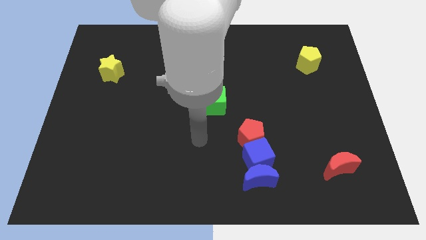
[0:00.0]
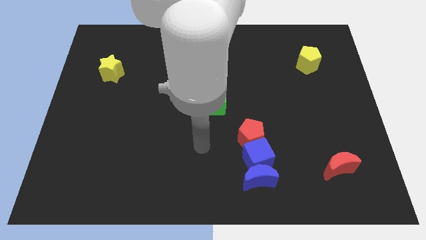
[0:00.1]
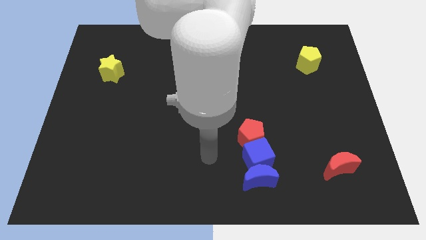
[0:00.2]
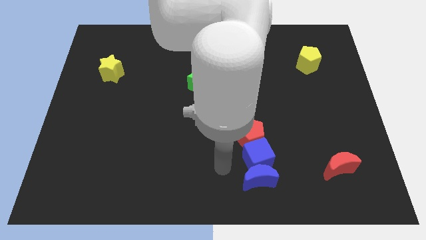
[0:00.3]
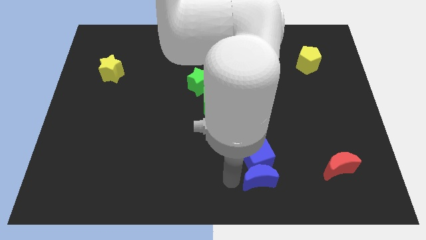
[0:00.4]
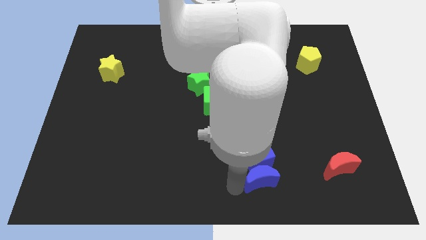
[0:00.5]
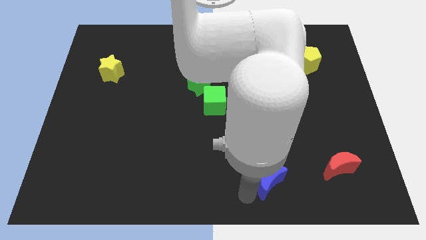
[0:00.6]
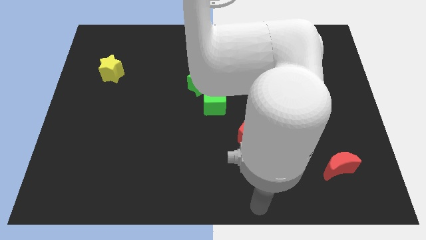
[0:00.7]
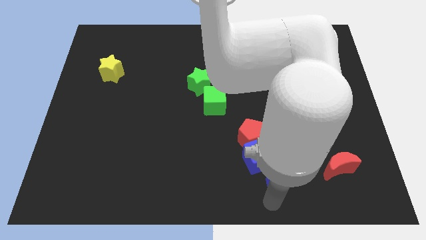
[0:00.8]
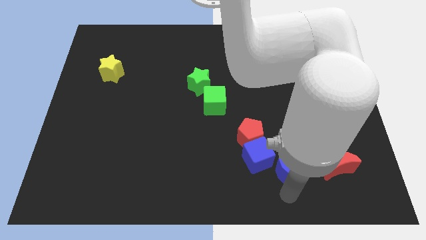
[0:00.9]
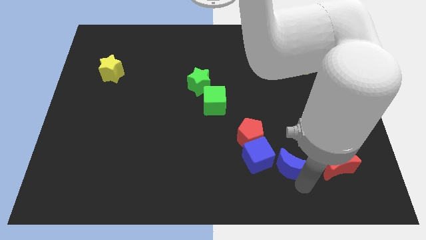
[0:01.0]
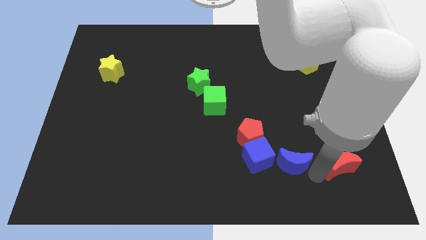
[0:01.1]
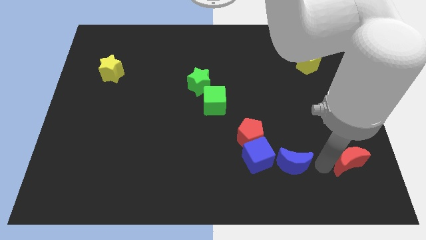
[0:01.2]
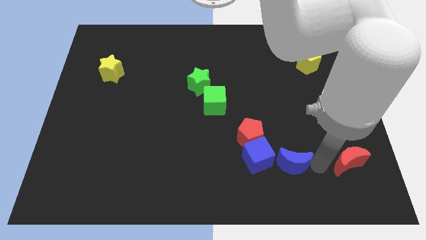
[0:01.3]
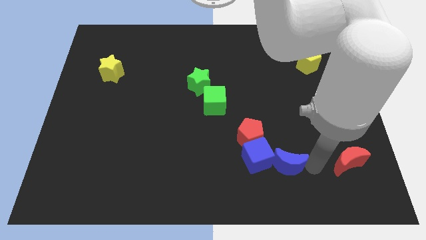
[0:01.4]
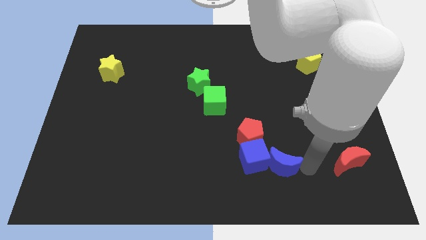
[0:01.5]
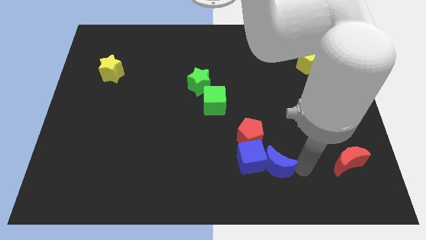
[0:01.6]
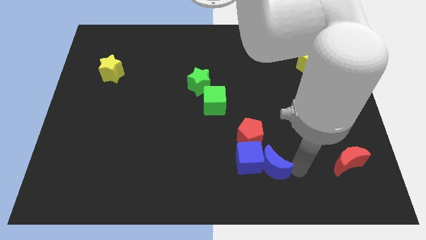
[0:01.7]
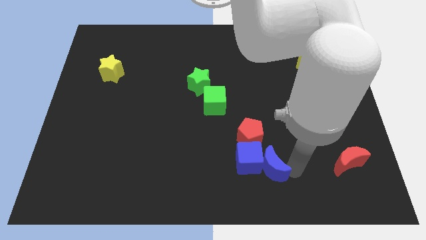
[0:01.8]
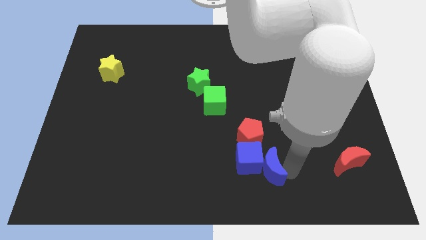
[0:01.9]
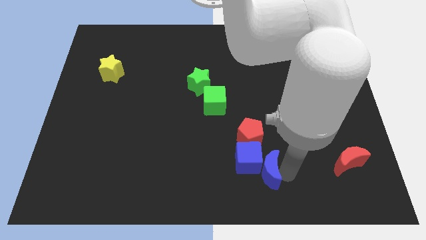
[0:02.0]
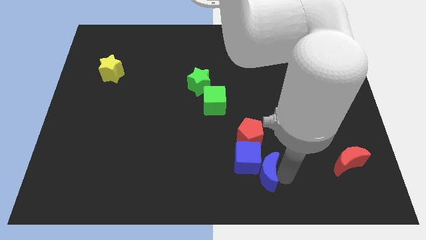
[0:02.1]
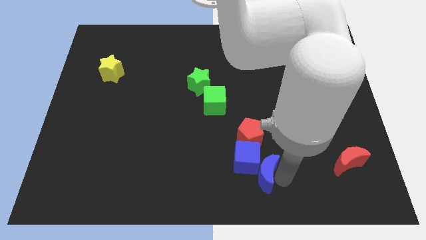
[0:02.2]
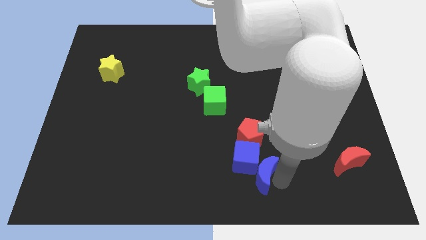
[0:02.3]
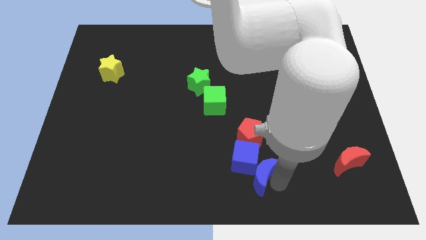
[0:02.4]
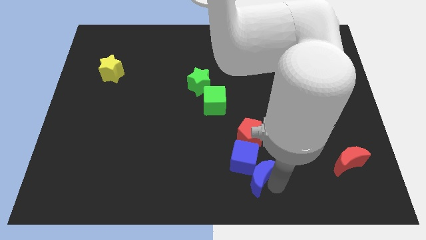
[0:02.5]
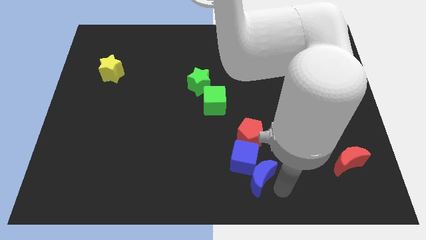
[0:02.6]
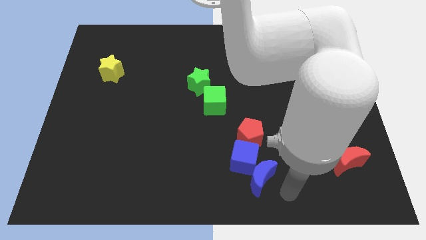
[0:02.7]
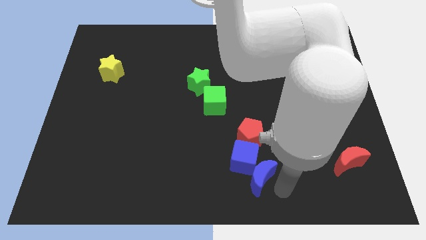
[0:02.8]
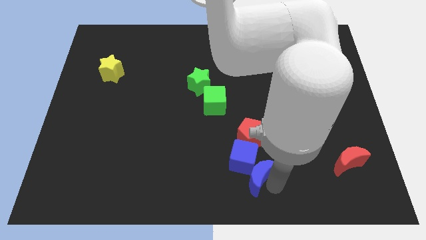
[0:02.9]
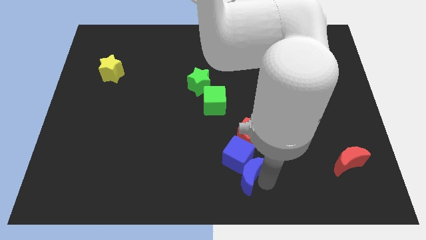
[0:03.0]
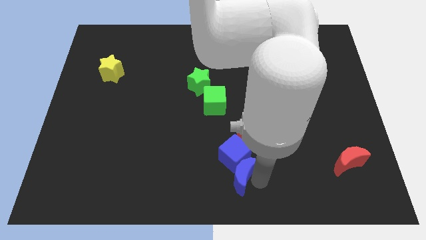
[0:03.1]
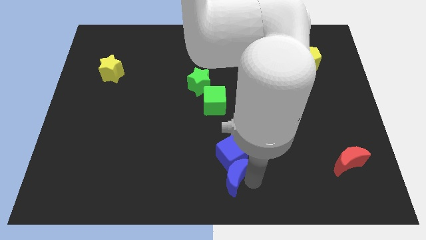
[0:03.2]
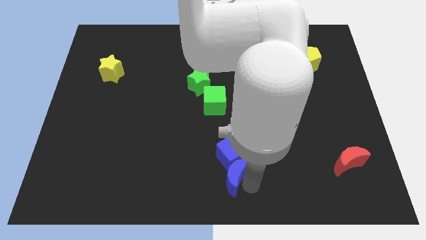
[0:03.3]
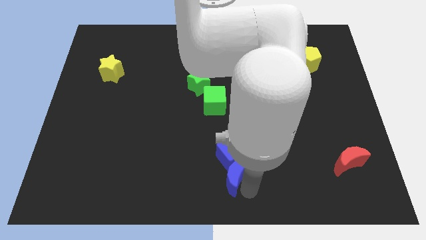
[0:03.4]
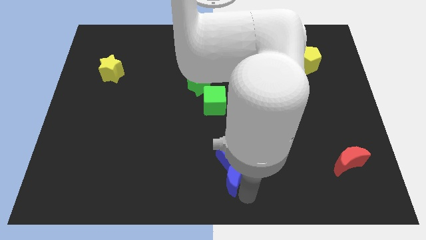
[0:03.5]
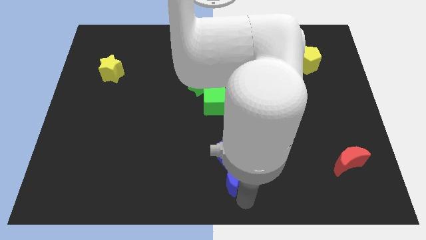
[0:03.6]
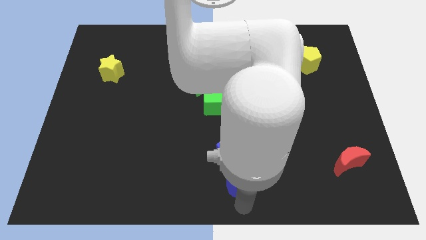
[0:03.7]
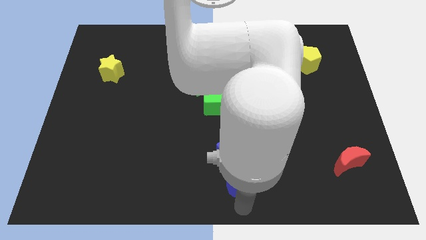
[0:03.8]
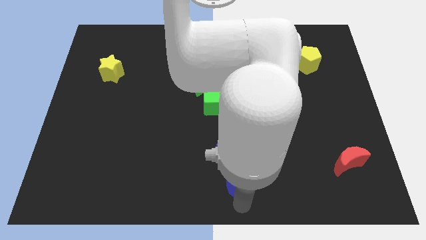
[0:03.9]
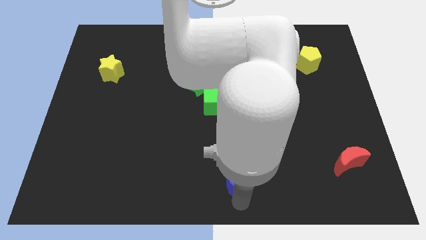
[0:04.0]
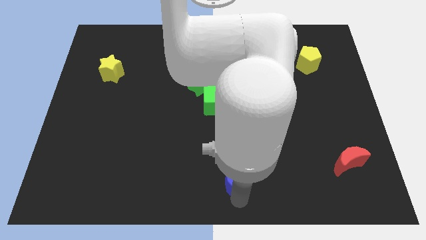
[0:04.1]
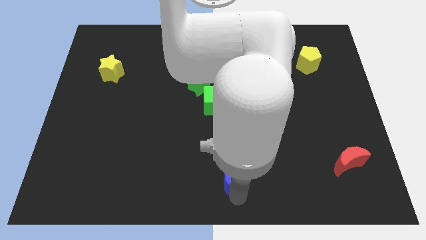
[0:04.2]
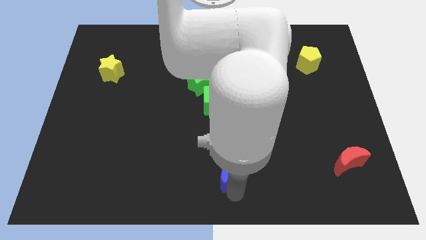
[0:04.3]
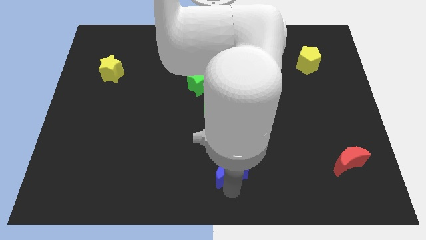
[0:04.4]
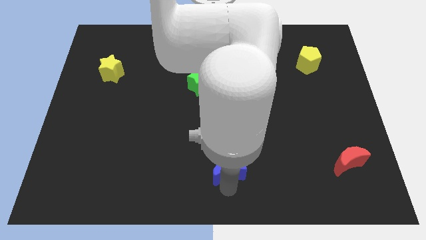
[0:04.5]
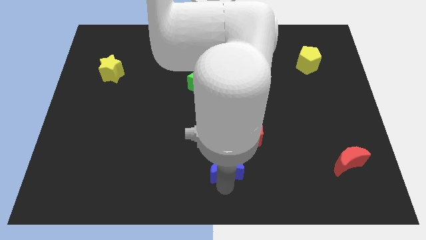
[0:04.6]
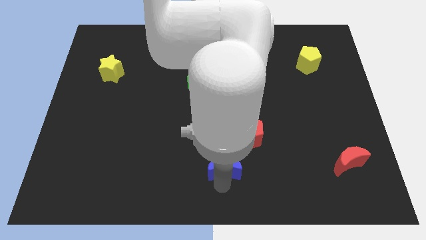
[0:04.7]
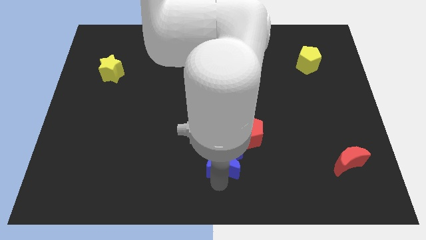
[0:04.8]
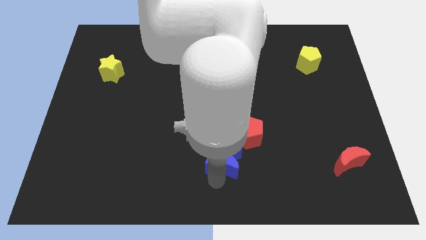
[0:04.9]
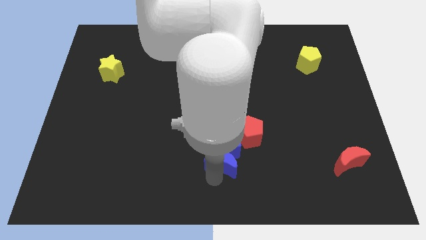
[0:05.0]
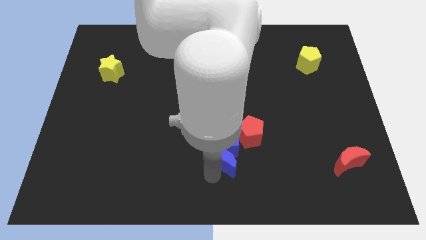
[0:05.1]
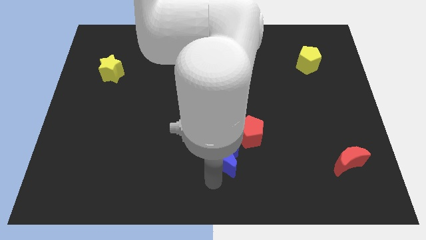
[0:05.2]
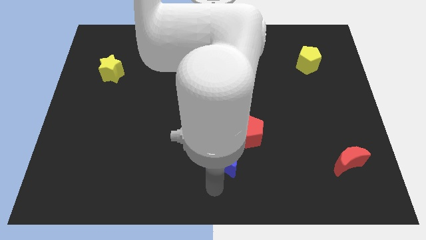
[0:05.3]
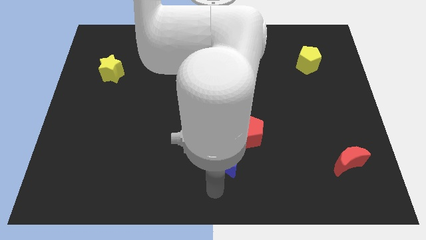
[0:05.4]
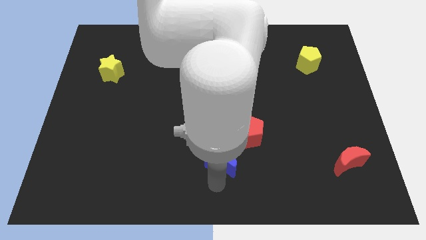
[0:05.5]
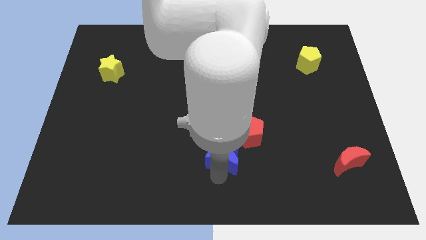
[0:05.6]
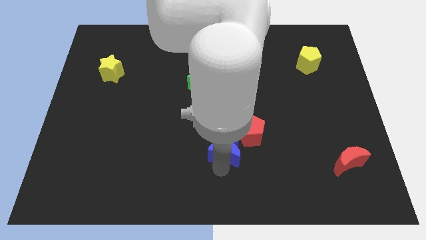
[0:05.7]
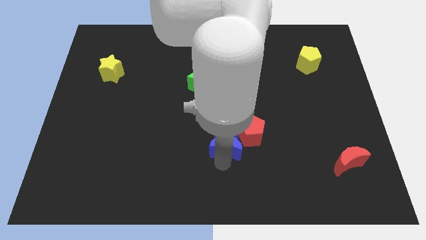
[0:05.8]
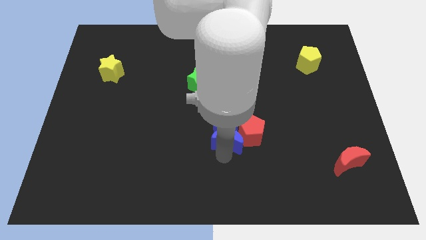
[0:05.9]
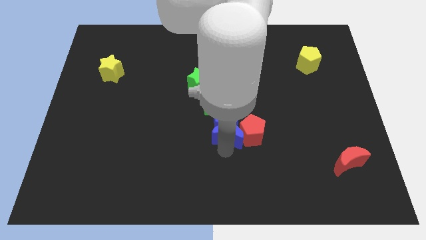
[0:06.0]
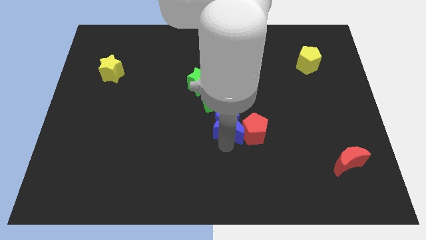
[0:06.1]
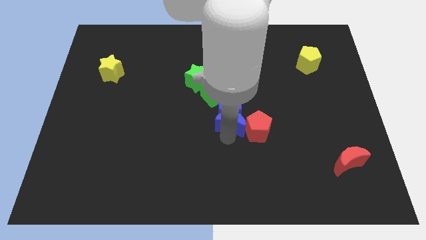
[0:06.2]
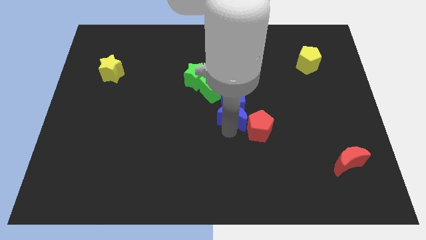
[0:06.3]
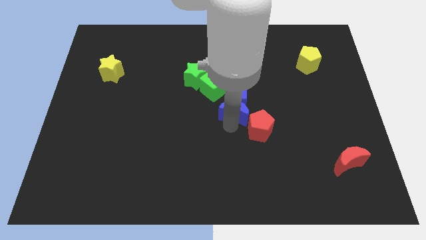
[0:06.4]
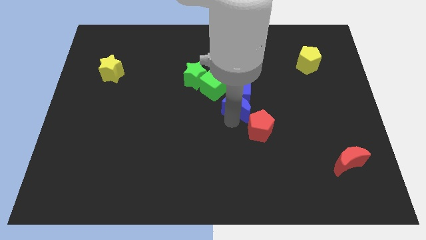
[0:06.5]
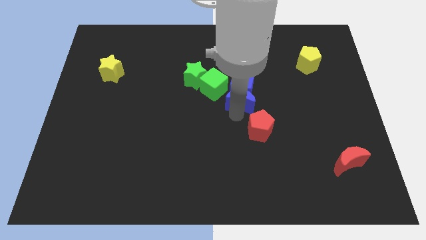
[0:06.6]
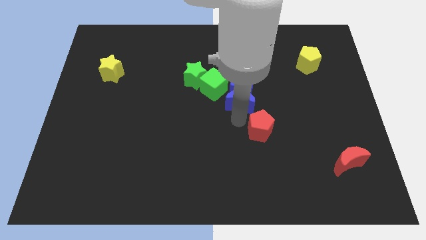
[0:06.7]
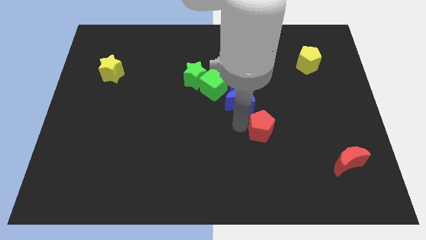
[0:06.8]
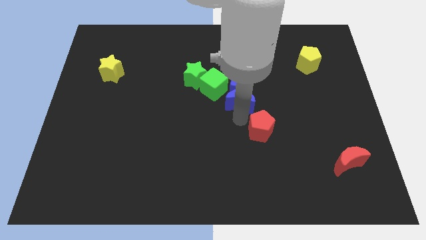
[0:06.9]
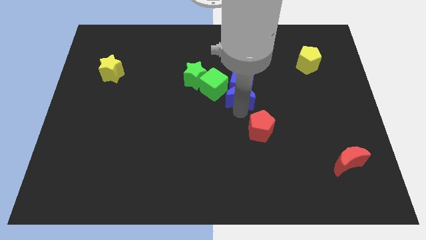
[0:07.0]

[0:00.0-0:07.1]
move the blue moon upwards

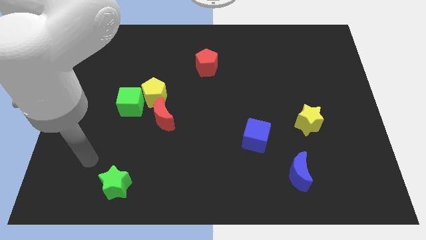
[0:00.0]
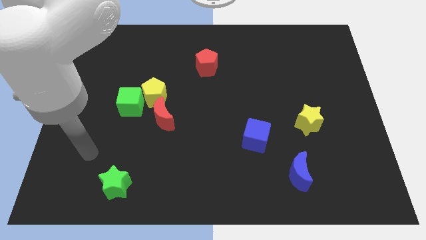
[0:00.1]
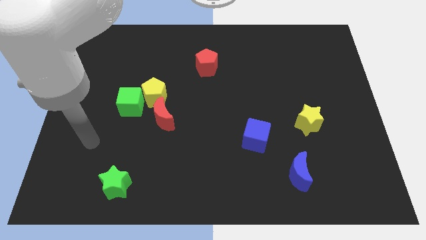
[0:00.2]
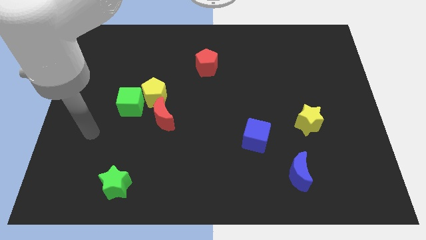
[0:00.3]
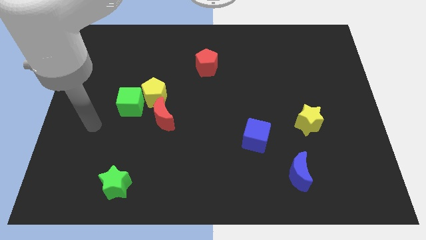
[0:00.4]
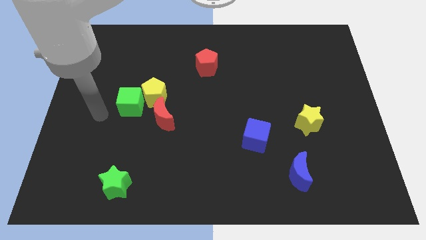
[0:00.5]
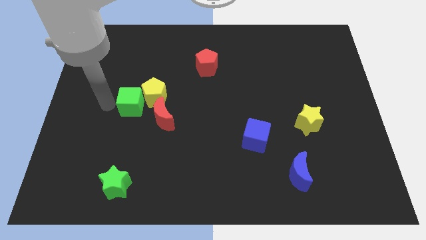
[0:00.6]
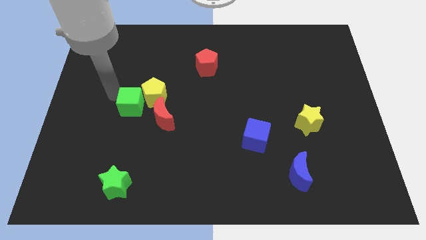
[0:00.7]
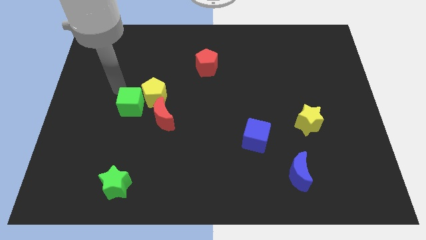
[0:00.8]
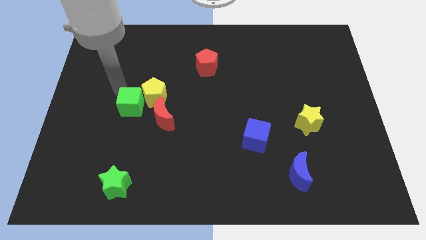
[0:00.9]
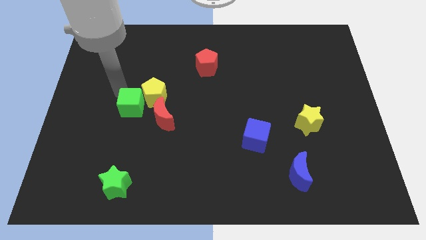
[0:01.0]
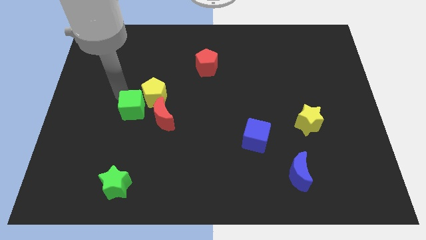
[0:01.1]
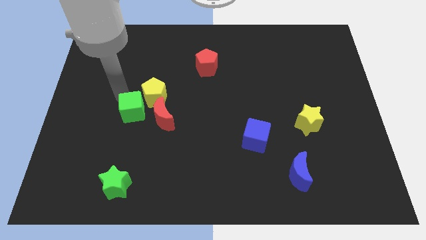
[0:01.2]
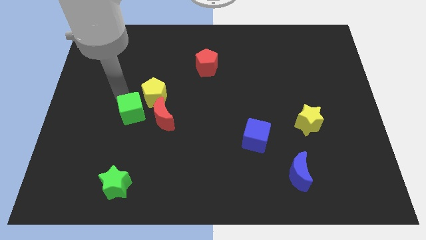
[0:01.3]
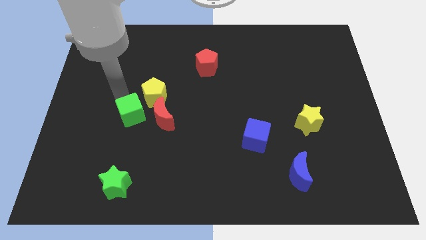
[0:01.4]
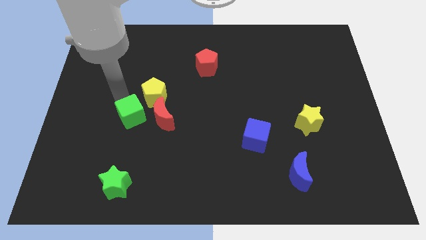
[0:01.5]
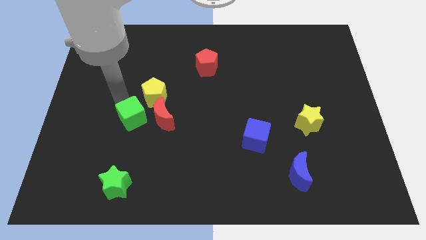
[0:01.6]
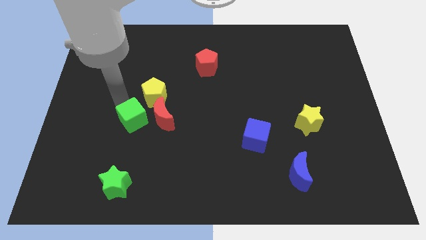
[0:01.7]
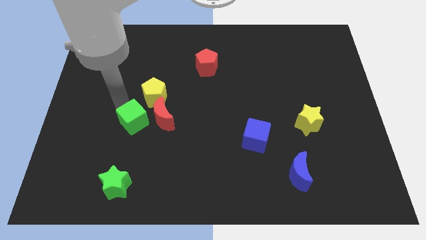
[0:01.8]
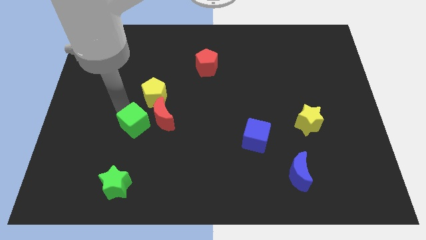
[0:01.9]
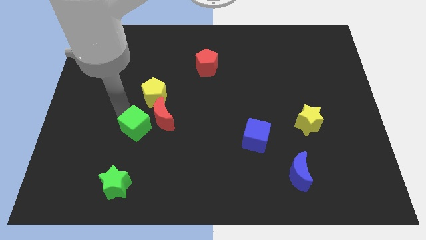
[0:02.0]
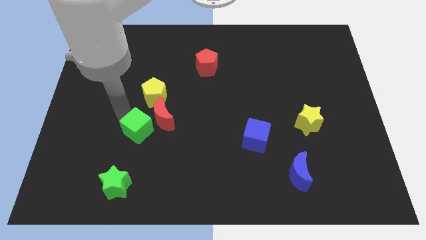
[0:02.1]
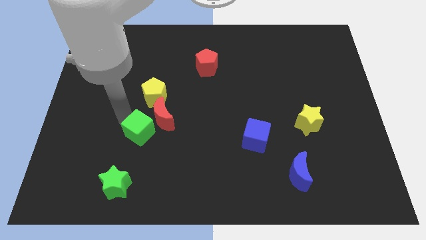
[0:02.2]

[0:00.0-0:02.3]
slightly slide the green cube diagonally downwards and right
